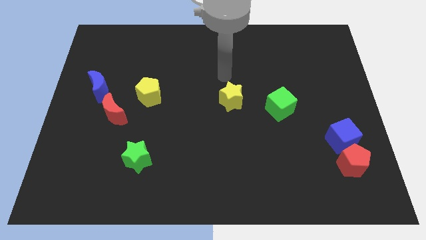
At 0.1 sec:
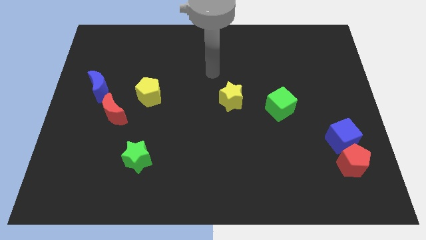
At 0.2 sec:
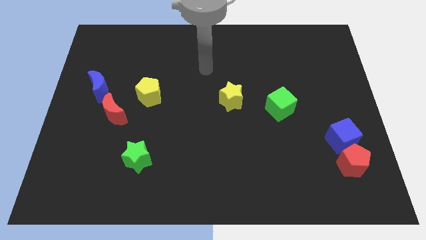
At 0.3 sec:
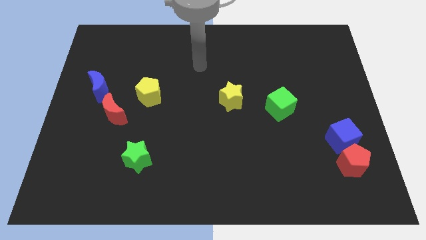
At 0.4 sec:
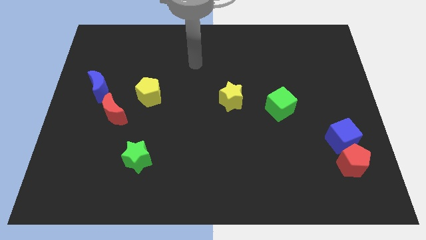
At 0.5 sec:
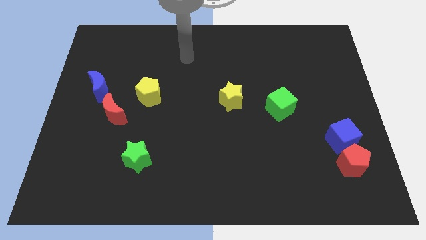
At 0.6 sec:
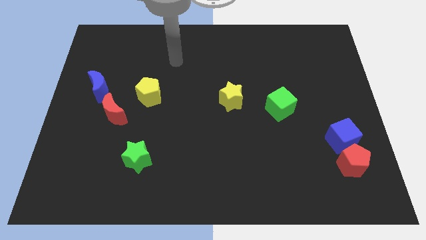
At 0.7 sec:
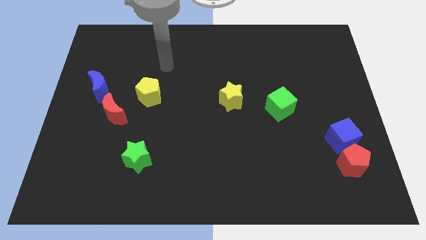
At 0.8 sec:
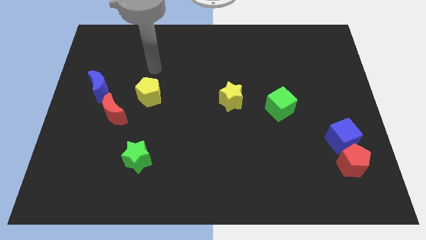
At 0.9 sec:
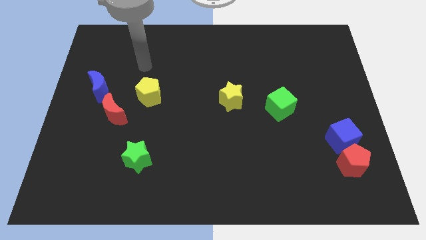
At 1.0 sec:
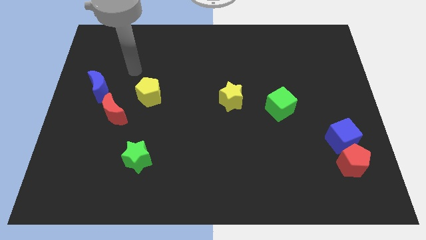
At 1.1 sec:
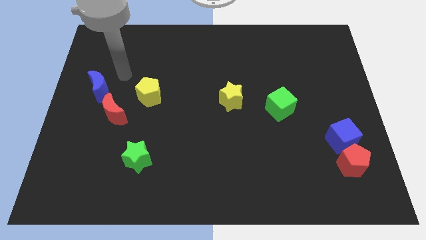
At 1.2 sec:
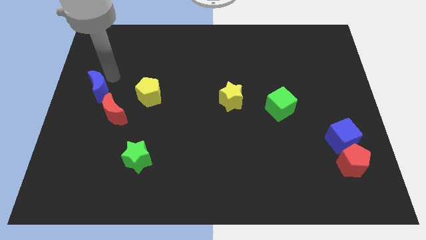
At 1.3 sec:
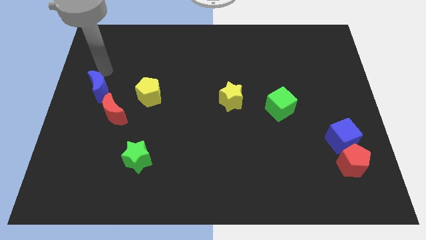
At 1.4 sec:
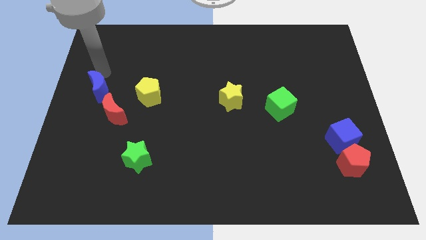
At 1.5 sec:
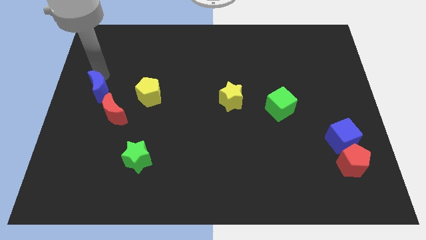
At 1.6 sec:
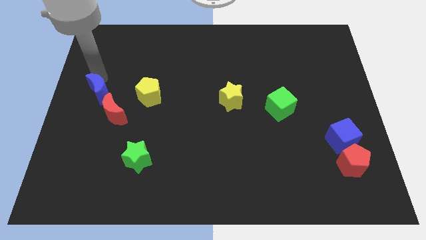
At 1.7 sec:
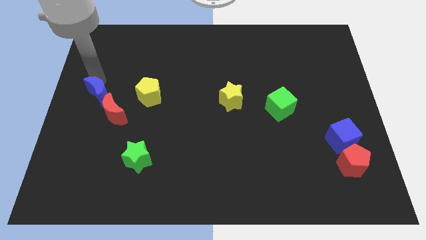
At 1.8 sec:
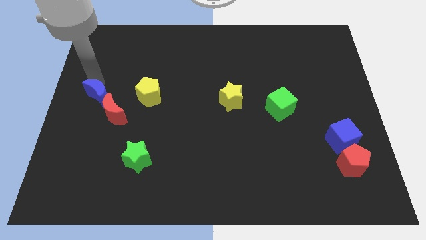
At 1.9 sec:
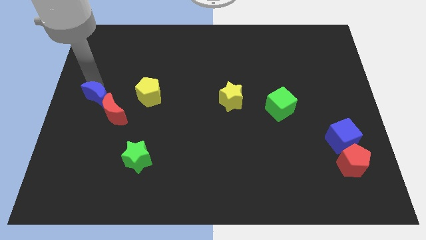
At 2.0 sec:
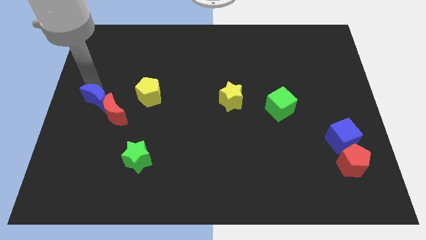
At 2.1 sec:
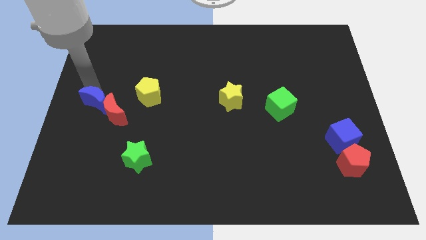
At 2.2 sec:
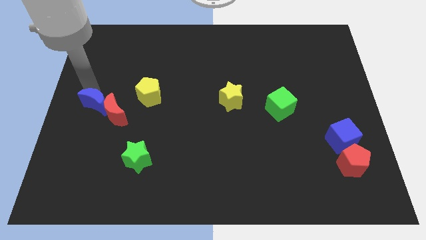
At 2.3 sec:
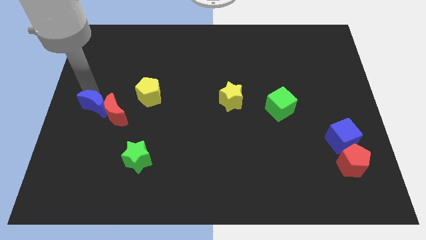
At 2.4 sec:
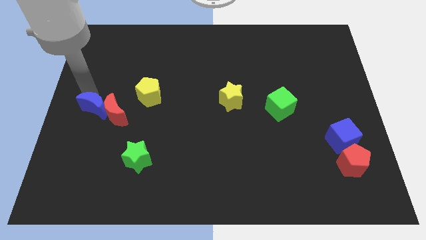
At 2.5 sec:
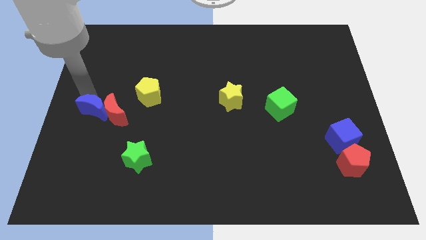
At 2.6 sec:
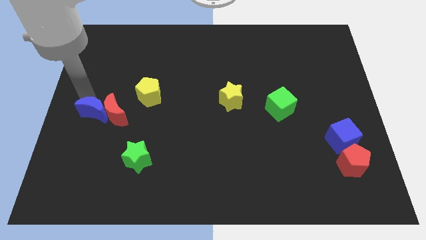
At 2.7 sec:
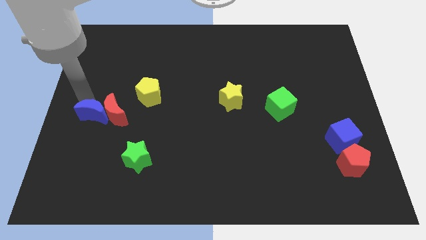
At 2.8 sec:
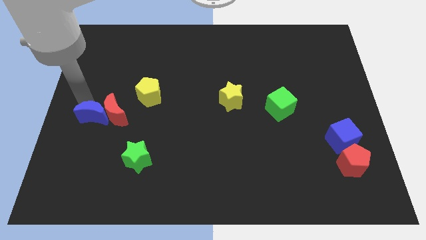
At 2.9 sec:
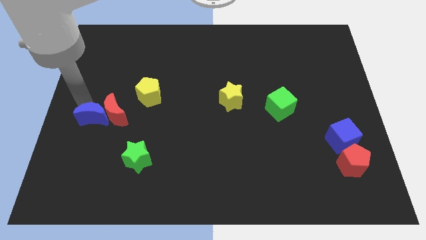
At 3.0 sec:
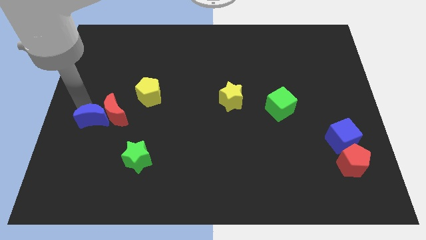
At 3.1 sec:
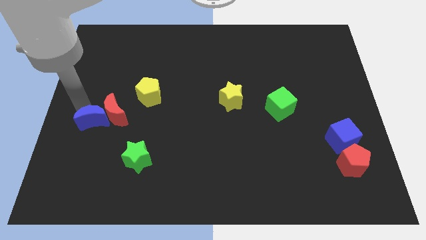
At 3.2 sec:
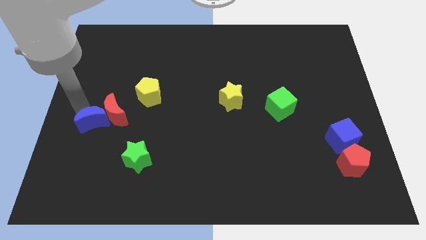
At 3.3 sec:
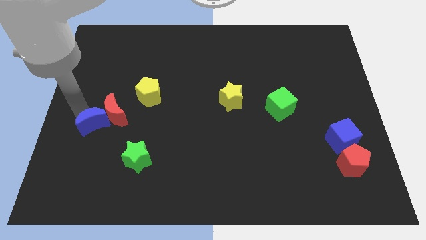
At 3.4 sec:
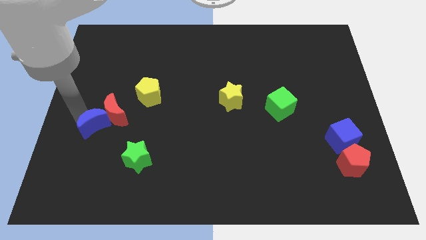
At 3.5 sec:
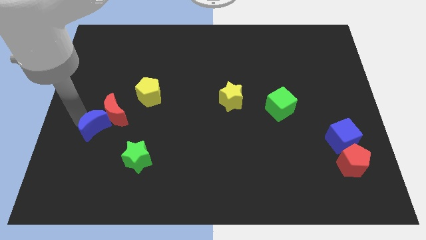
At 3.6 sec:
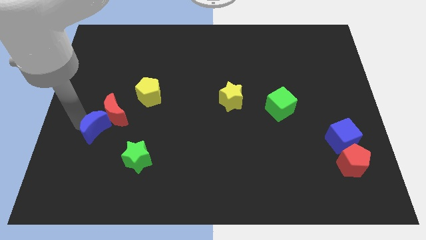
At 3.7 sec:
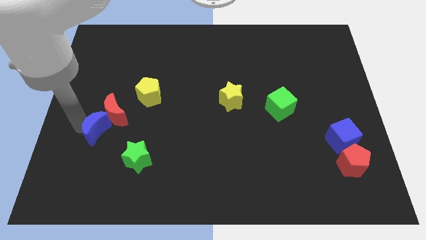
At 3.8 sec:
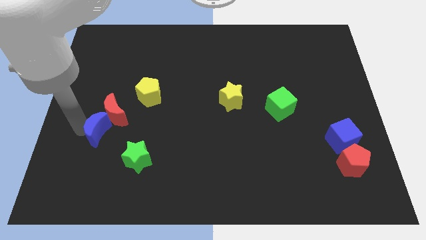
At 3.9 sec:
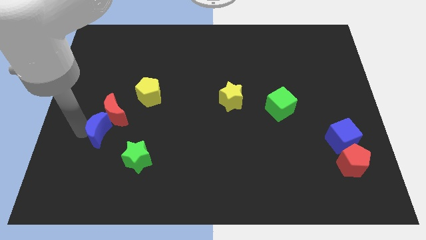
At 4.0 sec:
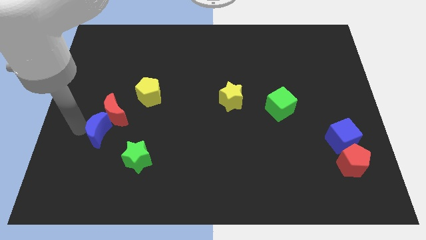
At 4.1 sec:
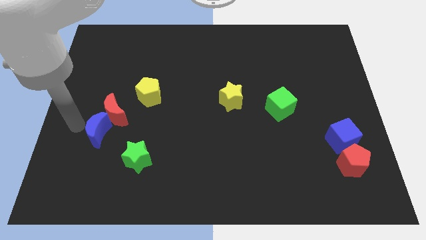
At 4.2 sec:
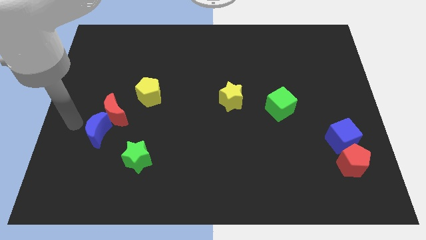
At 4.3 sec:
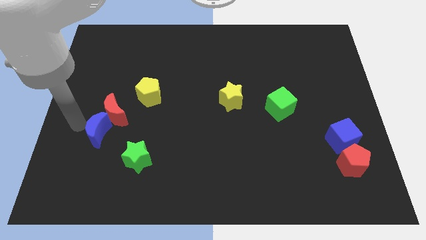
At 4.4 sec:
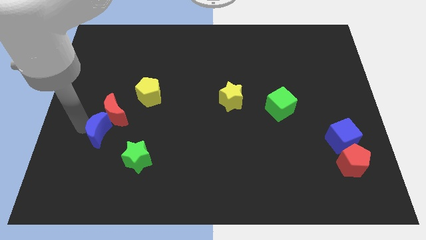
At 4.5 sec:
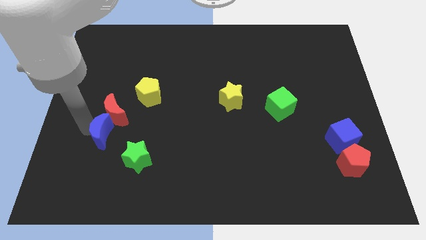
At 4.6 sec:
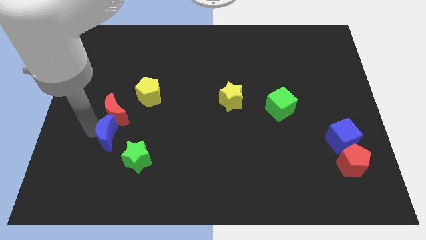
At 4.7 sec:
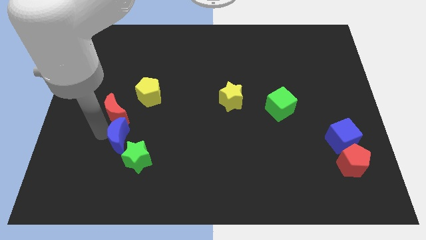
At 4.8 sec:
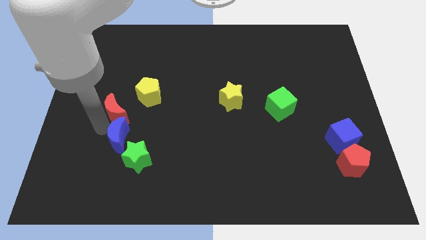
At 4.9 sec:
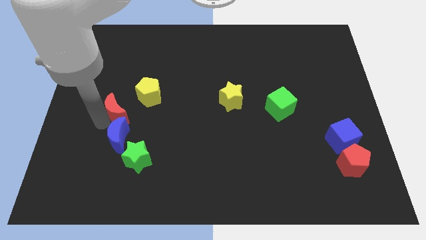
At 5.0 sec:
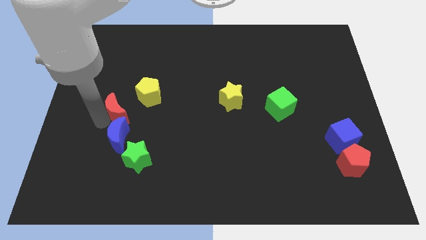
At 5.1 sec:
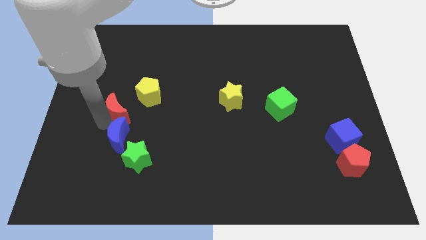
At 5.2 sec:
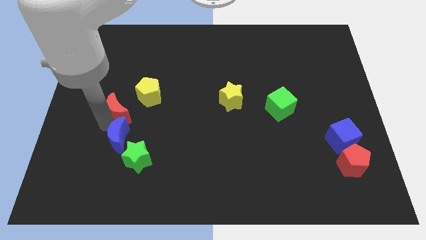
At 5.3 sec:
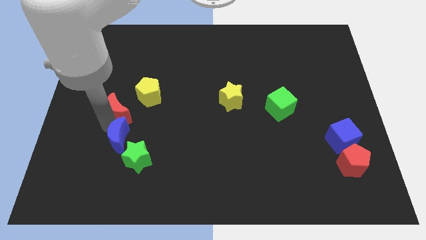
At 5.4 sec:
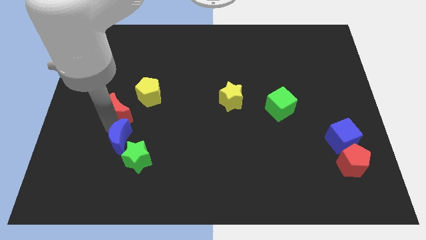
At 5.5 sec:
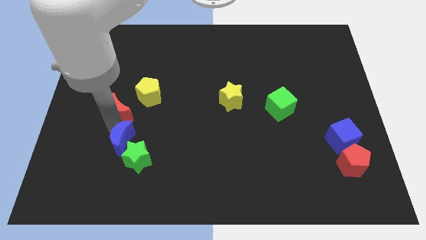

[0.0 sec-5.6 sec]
slide the blue moon close to the green star

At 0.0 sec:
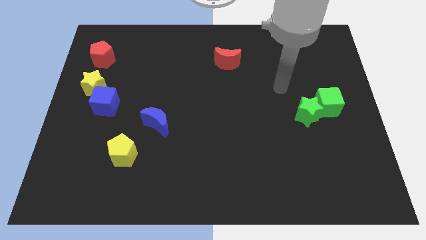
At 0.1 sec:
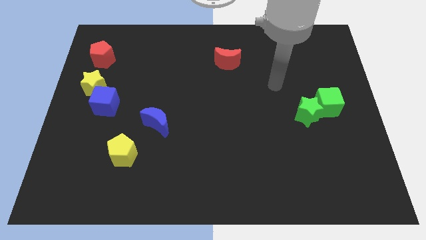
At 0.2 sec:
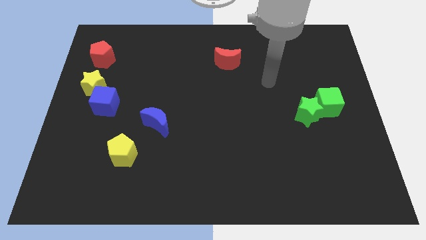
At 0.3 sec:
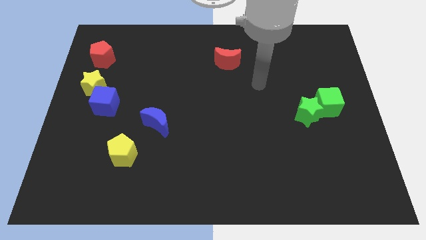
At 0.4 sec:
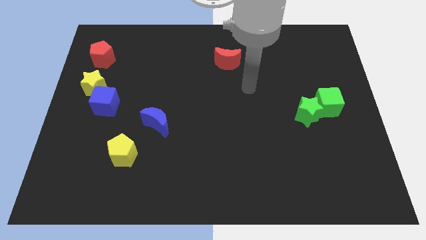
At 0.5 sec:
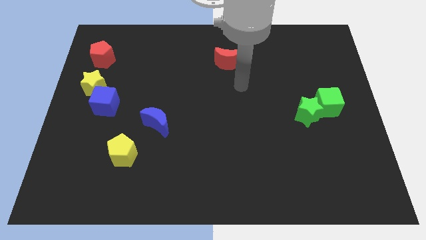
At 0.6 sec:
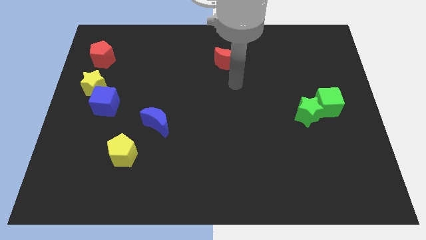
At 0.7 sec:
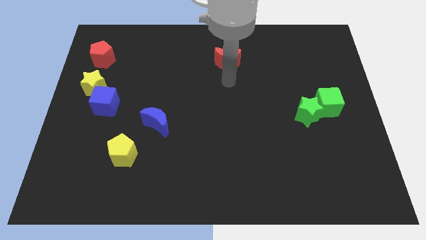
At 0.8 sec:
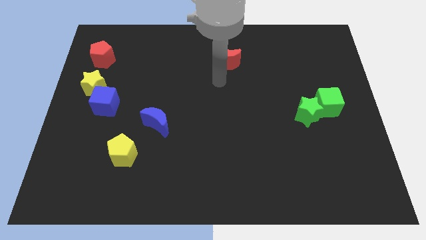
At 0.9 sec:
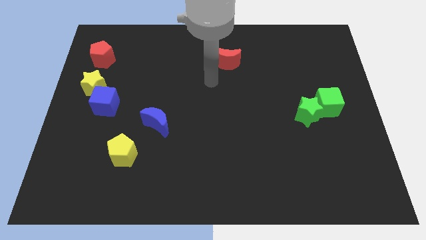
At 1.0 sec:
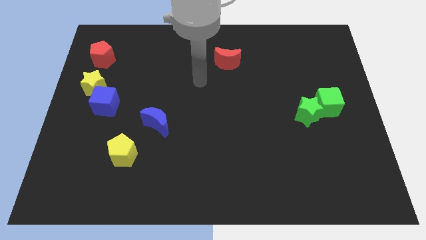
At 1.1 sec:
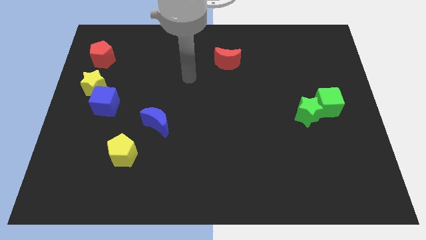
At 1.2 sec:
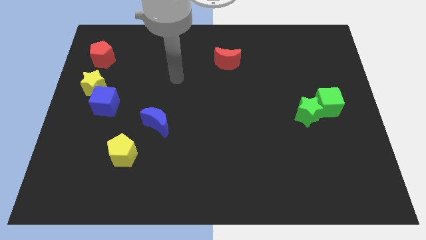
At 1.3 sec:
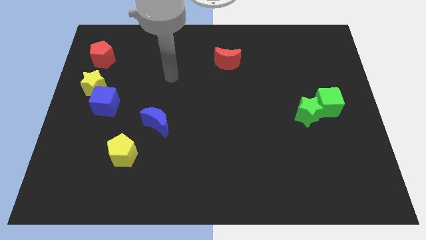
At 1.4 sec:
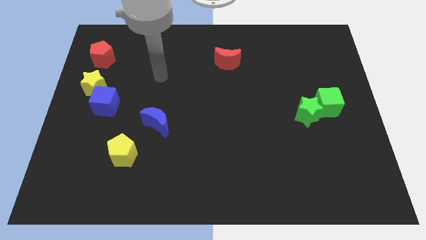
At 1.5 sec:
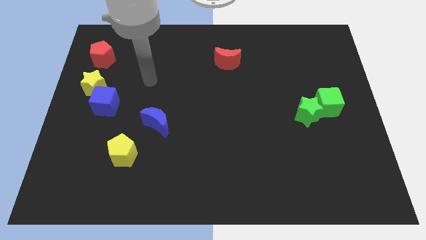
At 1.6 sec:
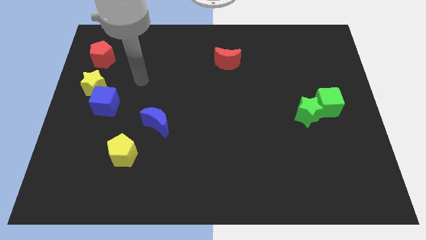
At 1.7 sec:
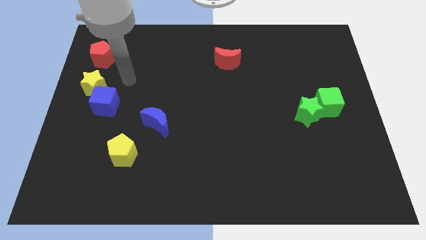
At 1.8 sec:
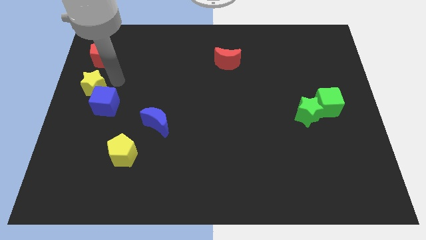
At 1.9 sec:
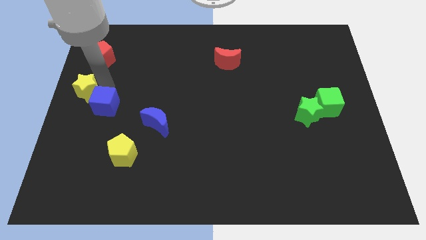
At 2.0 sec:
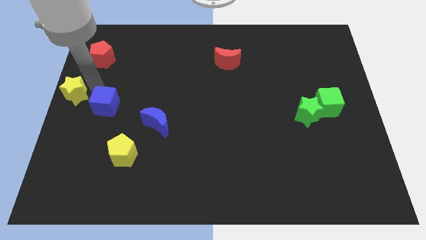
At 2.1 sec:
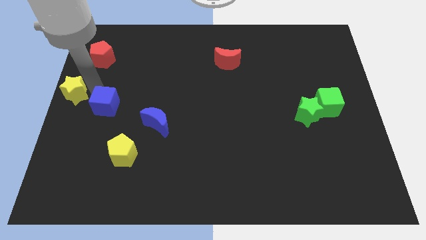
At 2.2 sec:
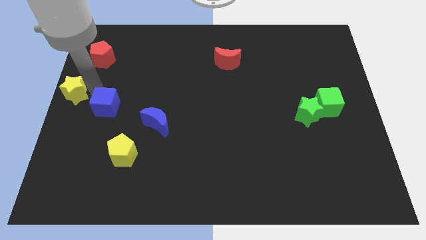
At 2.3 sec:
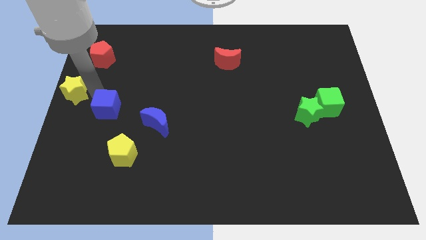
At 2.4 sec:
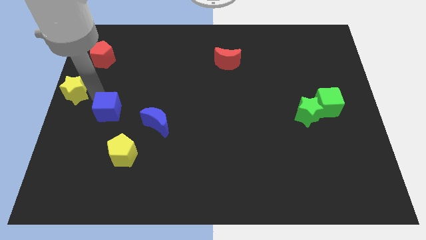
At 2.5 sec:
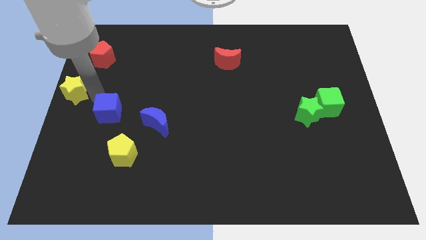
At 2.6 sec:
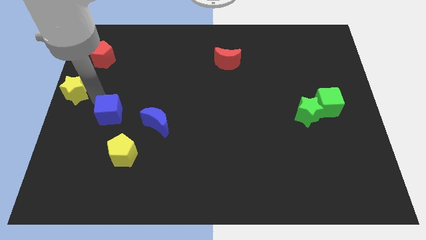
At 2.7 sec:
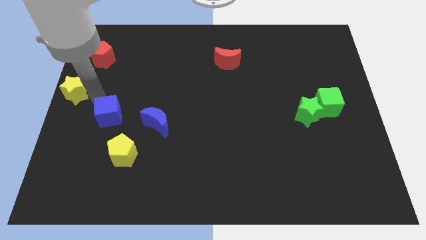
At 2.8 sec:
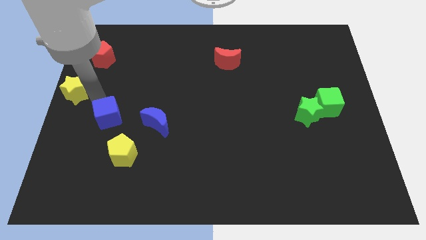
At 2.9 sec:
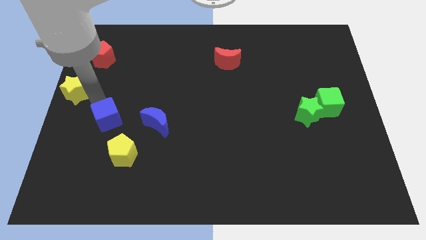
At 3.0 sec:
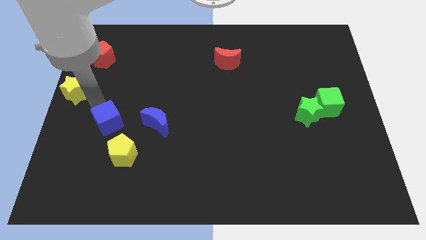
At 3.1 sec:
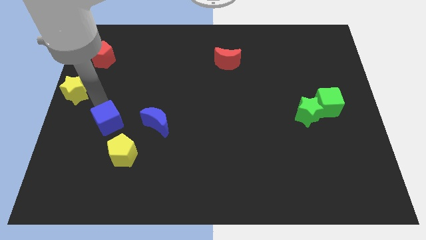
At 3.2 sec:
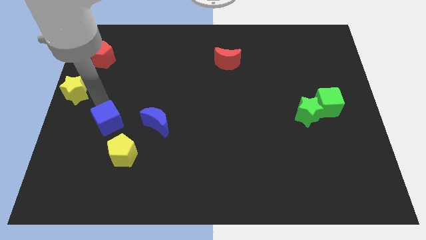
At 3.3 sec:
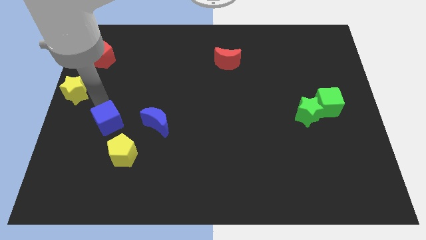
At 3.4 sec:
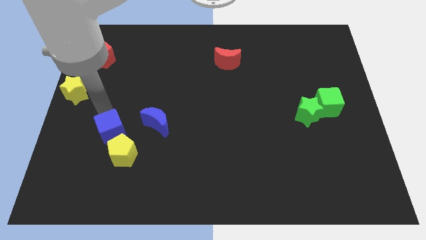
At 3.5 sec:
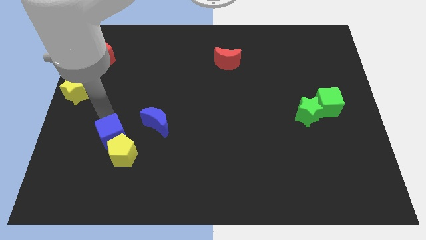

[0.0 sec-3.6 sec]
push the blue cube to the yellow pentagon
